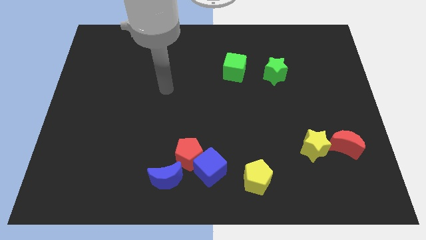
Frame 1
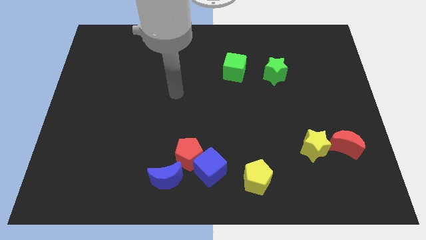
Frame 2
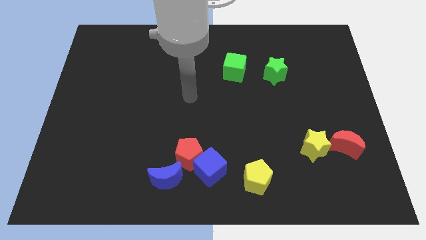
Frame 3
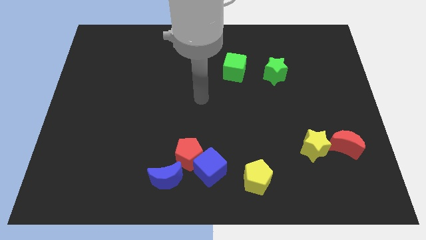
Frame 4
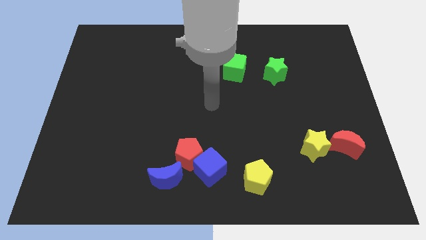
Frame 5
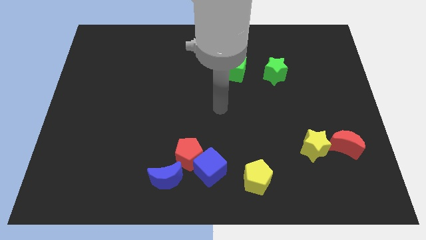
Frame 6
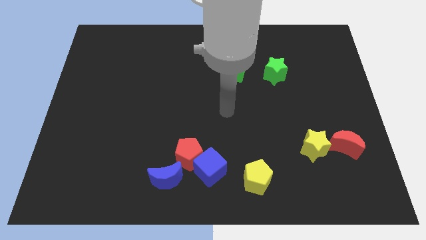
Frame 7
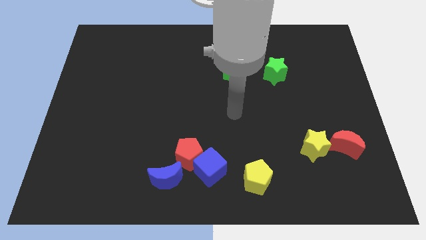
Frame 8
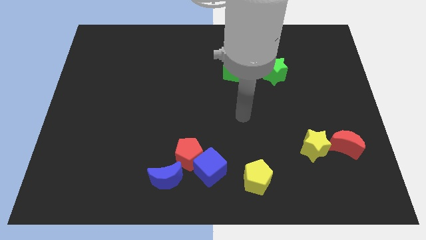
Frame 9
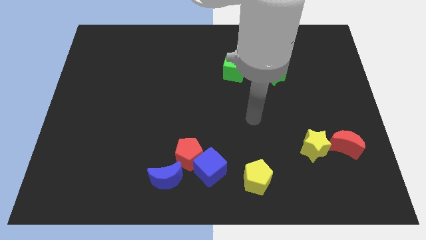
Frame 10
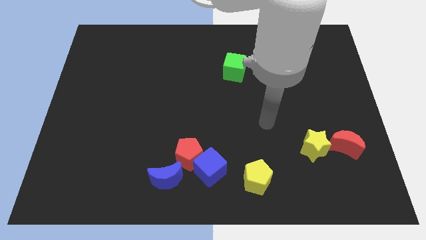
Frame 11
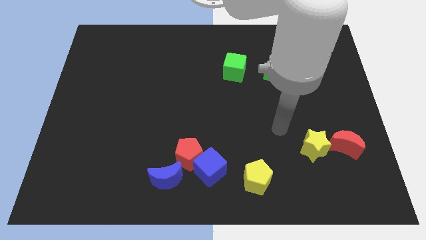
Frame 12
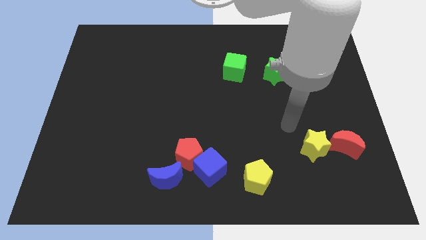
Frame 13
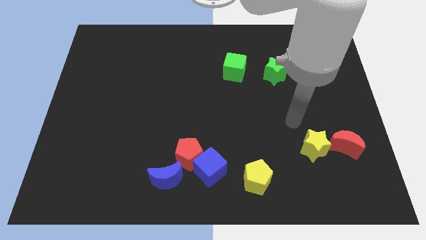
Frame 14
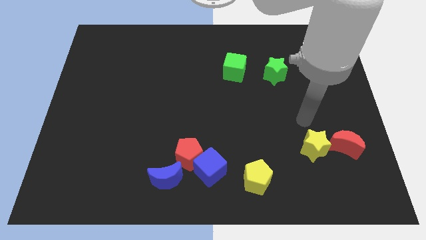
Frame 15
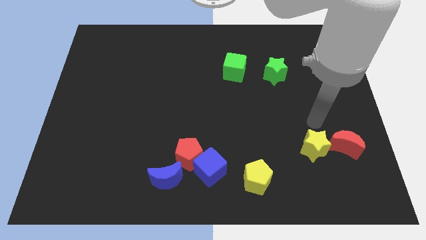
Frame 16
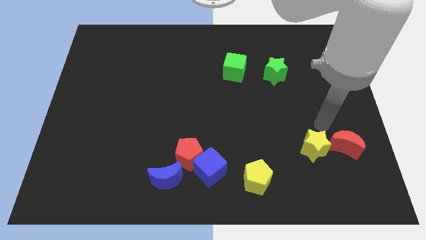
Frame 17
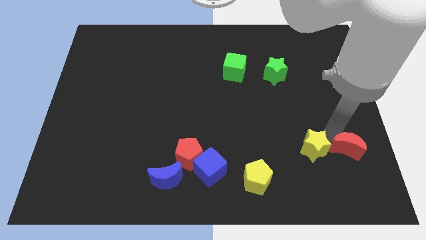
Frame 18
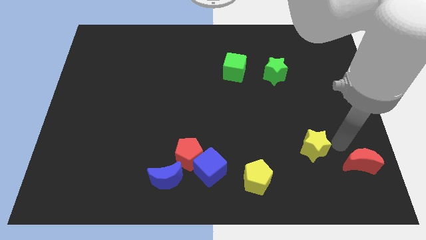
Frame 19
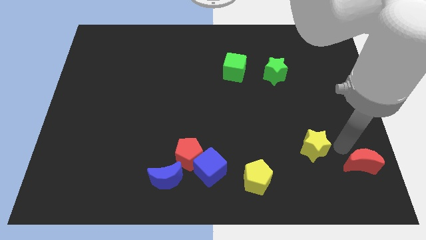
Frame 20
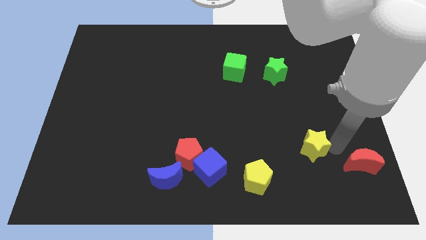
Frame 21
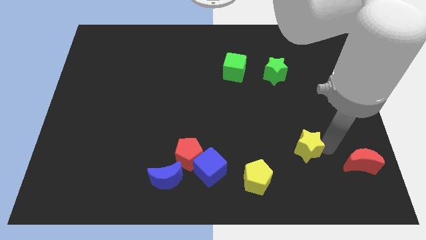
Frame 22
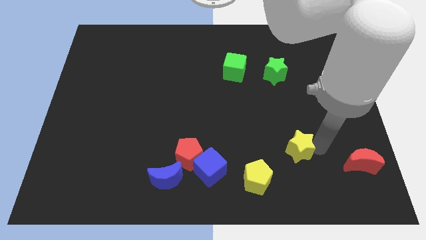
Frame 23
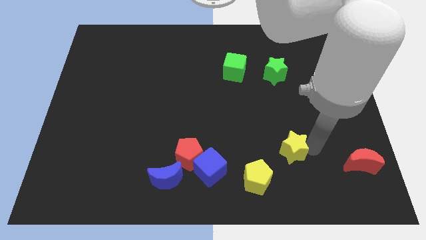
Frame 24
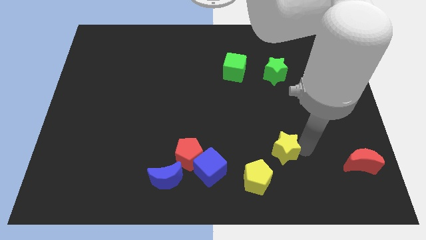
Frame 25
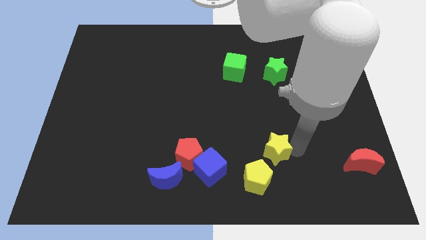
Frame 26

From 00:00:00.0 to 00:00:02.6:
move the yellow star left a bit

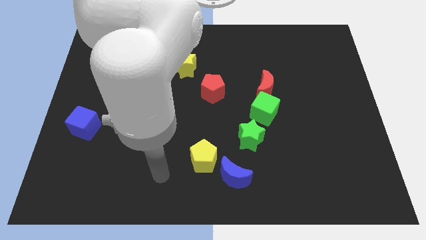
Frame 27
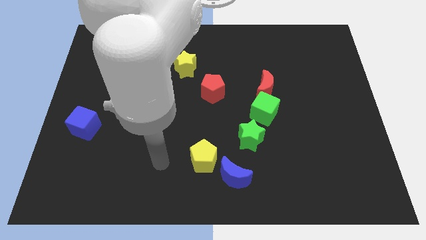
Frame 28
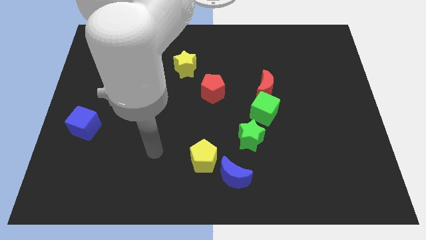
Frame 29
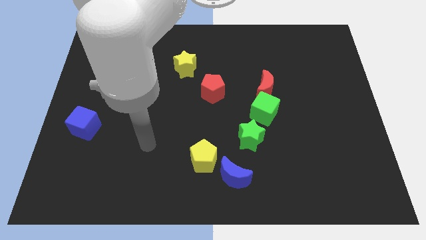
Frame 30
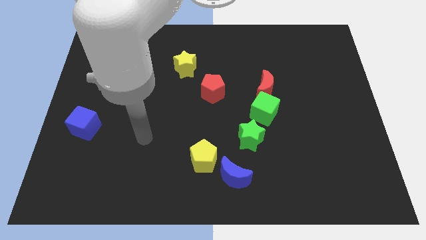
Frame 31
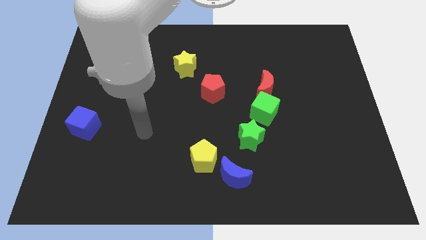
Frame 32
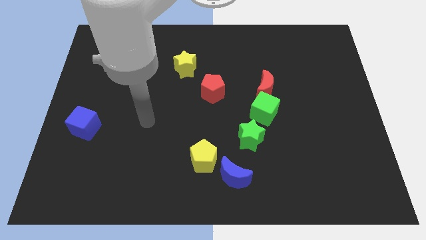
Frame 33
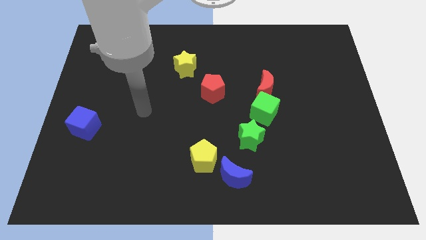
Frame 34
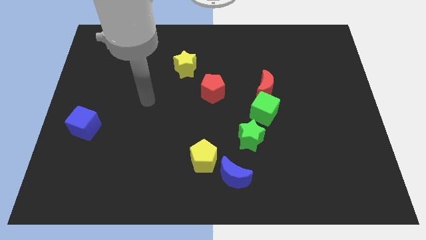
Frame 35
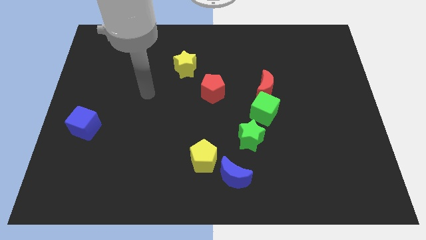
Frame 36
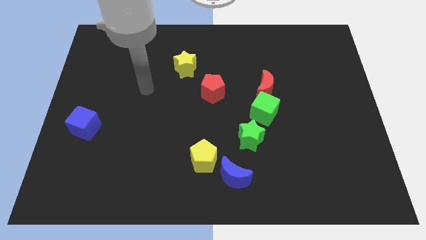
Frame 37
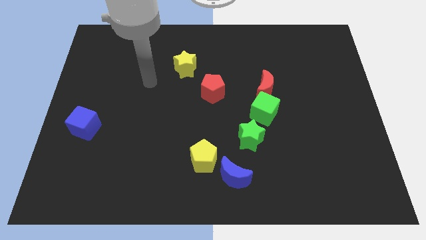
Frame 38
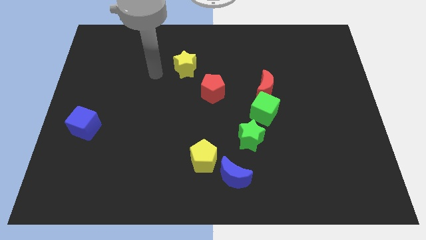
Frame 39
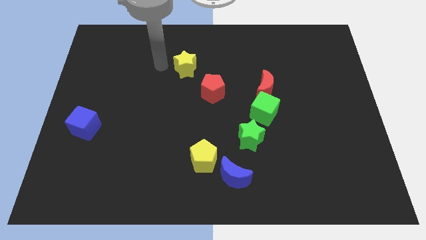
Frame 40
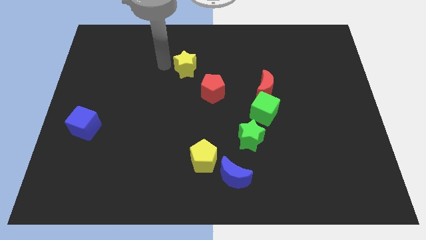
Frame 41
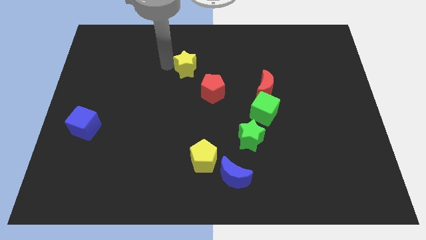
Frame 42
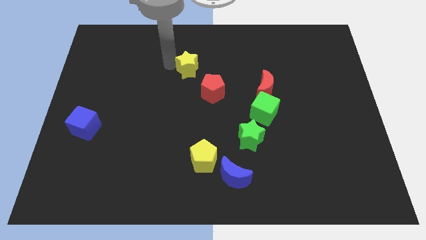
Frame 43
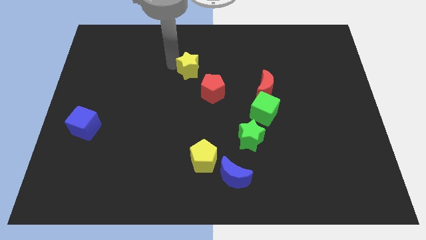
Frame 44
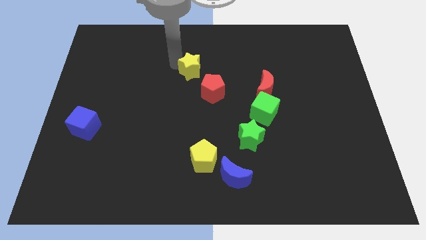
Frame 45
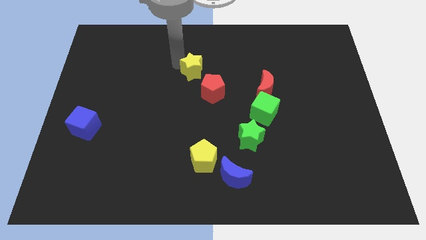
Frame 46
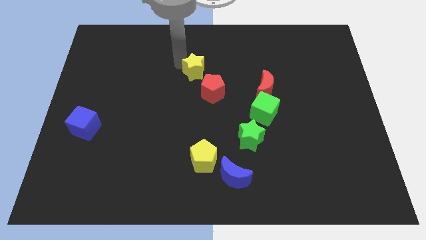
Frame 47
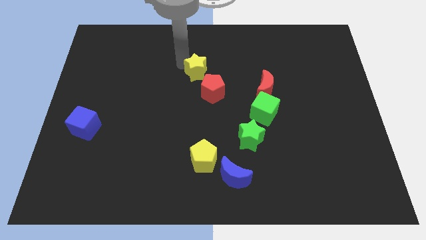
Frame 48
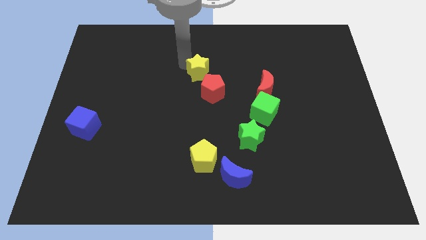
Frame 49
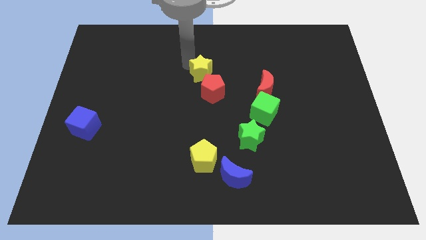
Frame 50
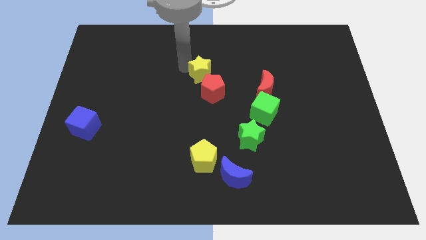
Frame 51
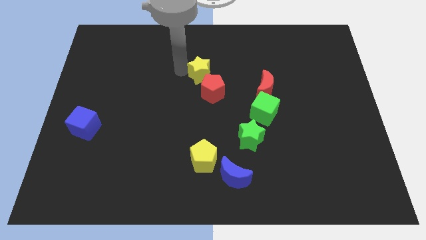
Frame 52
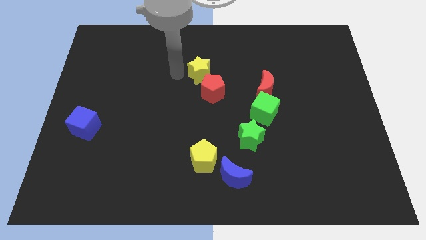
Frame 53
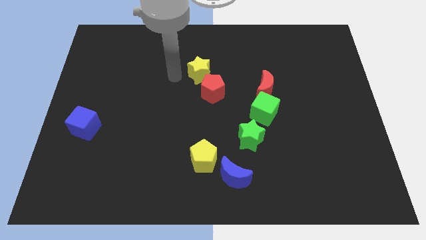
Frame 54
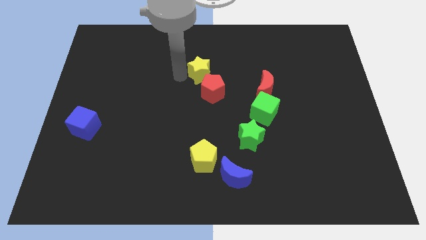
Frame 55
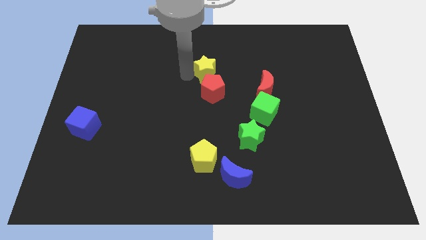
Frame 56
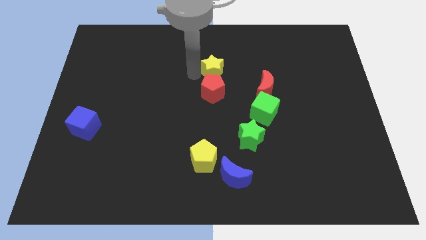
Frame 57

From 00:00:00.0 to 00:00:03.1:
push the yellow star to the right a bit

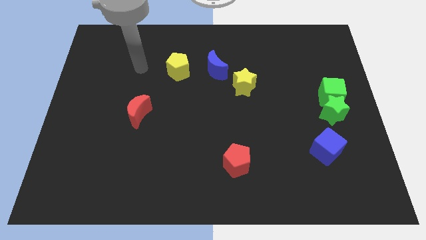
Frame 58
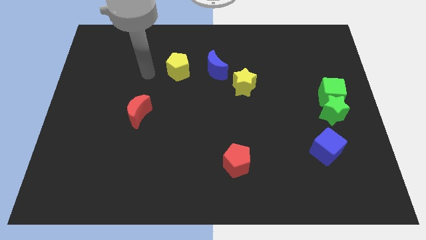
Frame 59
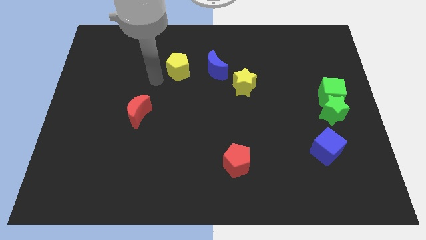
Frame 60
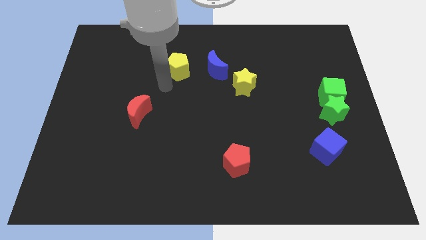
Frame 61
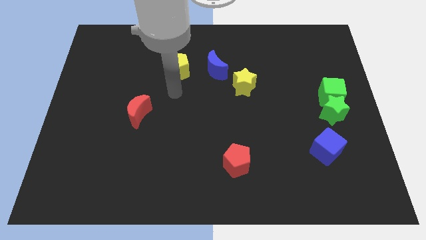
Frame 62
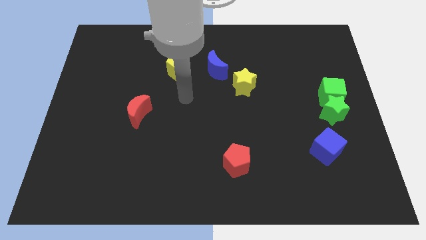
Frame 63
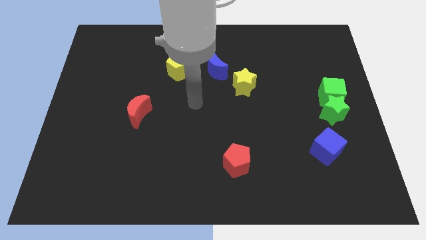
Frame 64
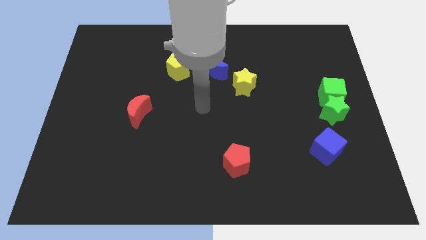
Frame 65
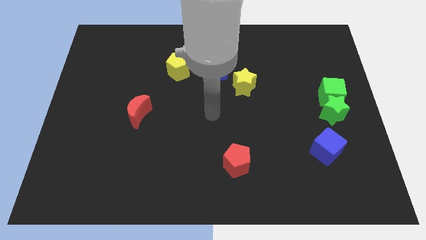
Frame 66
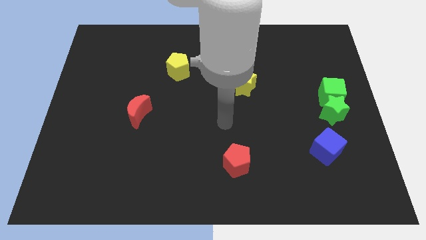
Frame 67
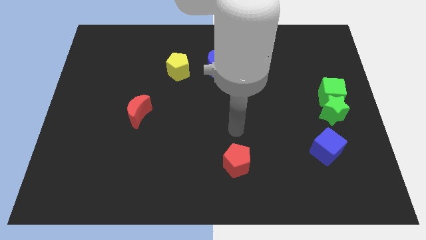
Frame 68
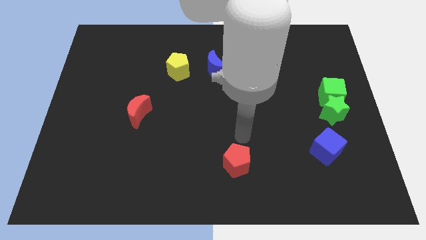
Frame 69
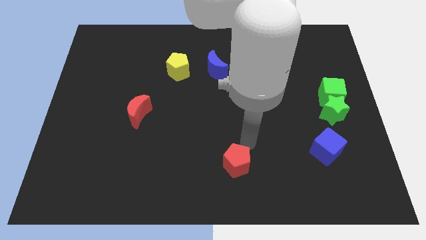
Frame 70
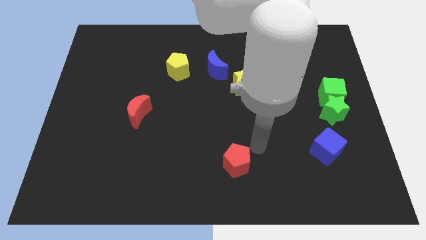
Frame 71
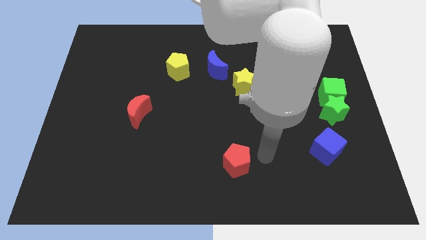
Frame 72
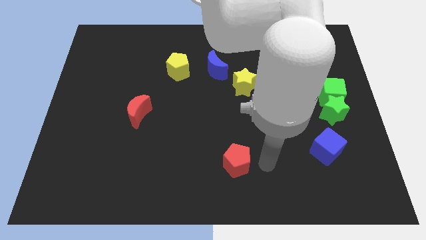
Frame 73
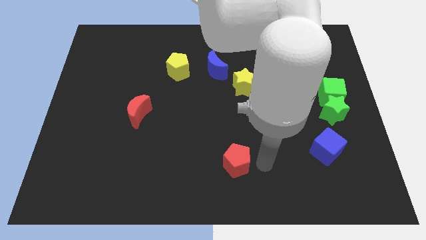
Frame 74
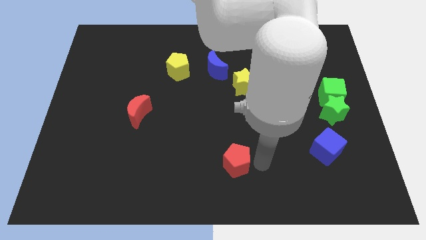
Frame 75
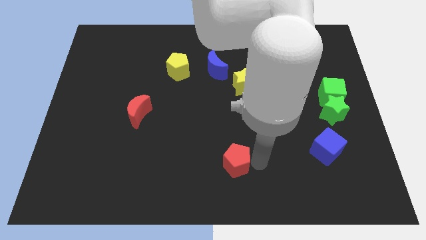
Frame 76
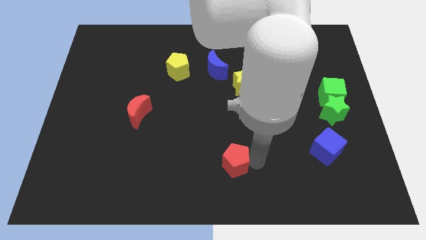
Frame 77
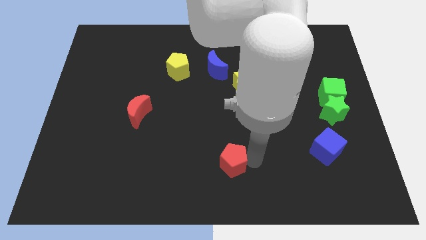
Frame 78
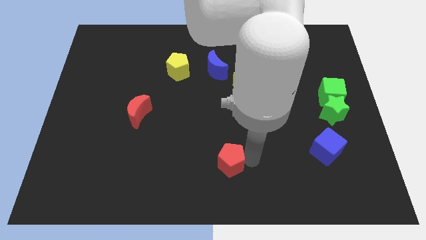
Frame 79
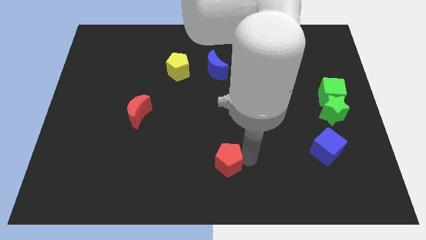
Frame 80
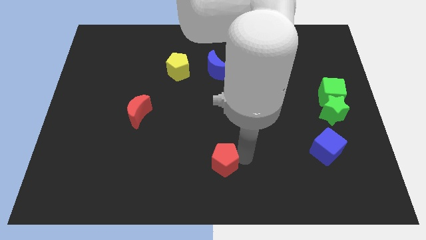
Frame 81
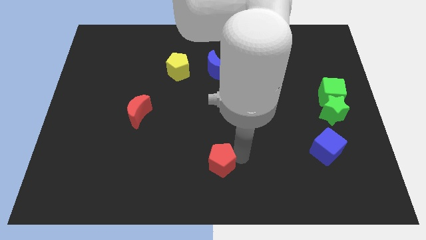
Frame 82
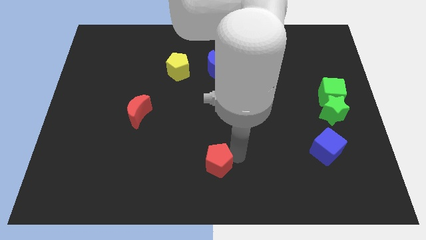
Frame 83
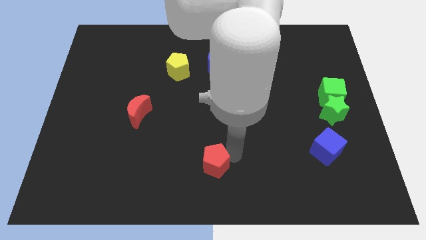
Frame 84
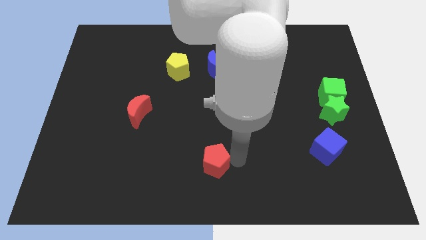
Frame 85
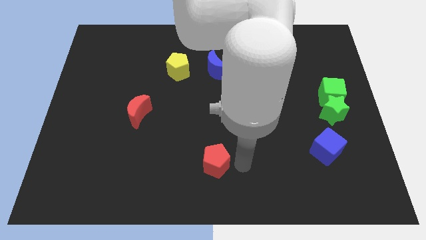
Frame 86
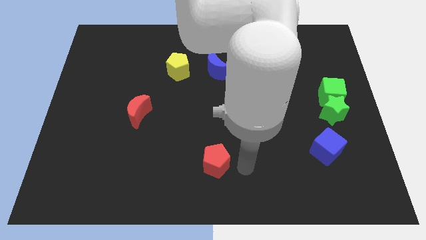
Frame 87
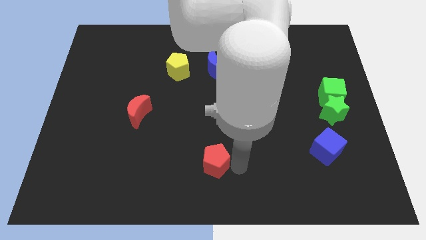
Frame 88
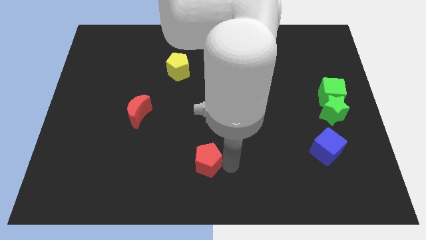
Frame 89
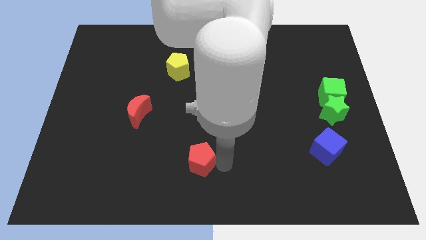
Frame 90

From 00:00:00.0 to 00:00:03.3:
push the red pentagon a little left
